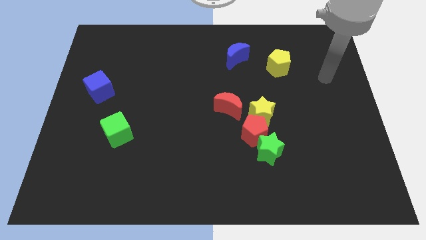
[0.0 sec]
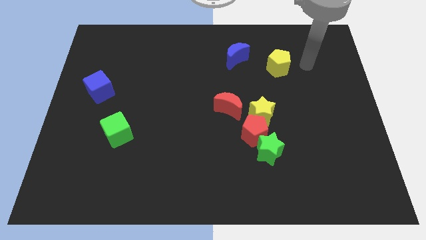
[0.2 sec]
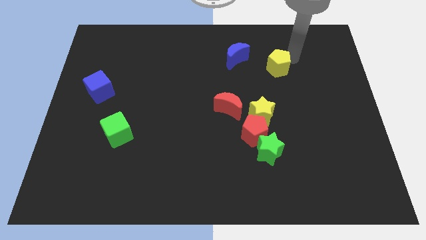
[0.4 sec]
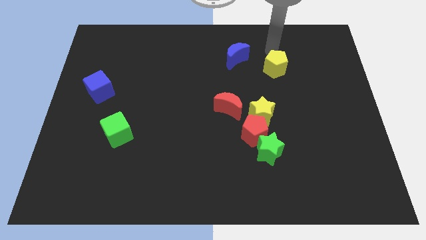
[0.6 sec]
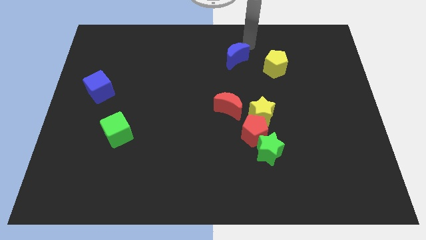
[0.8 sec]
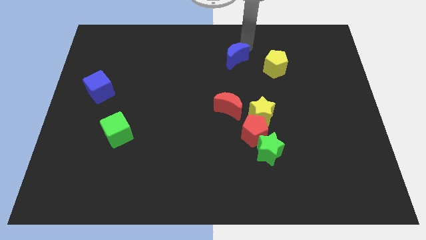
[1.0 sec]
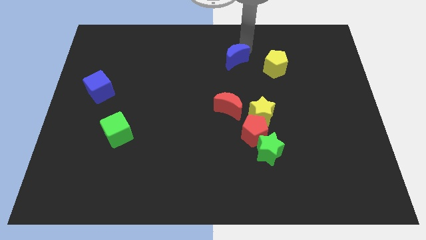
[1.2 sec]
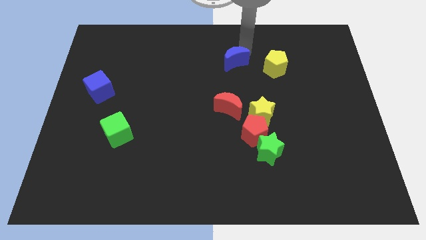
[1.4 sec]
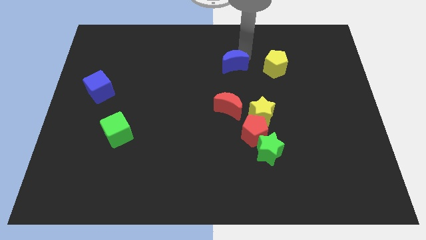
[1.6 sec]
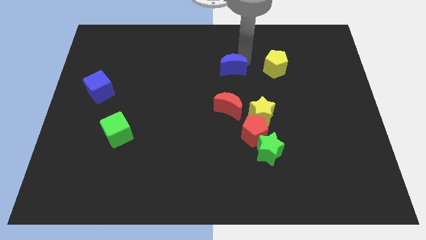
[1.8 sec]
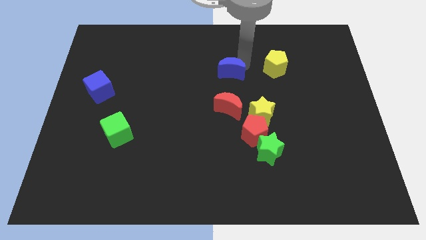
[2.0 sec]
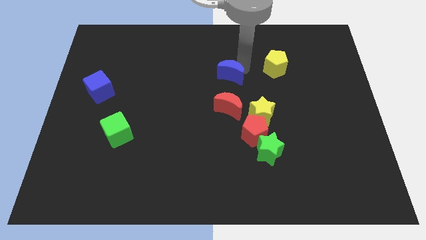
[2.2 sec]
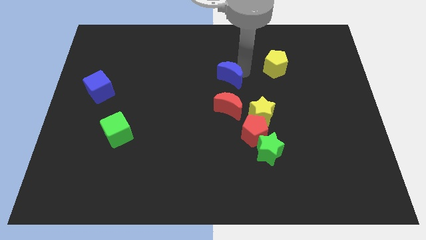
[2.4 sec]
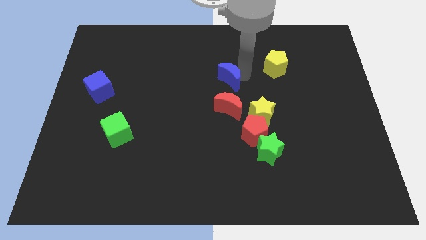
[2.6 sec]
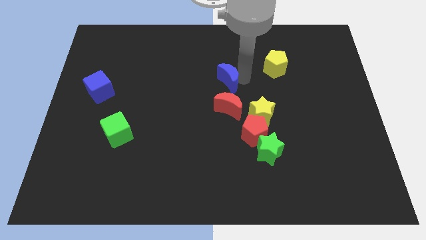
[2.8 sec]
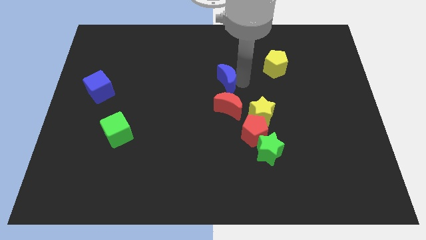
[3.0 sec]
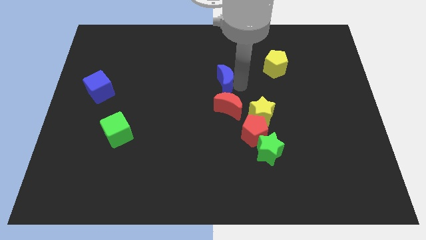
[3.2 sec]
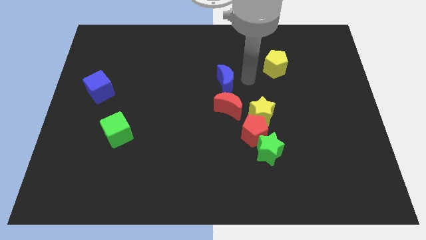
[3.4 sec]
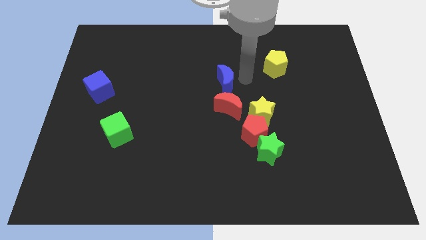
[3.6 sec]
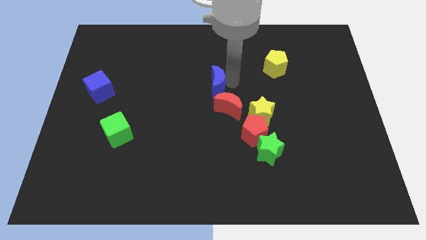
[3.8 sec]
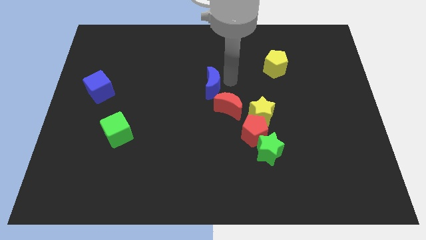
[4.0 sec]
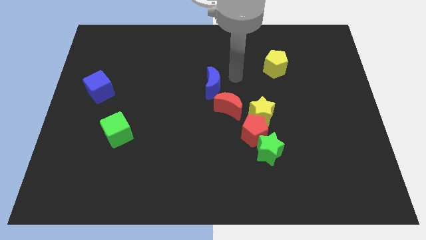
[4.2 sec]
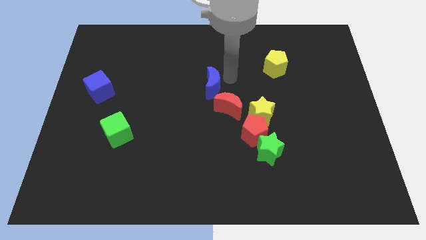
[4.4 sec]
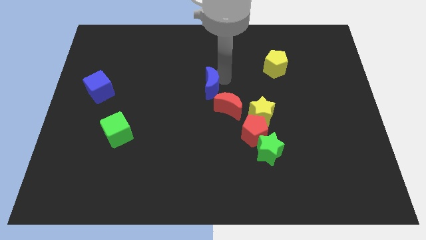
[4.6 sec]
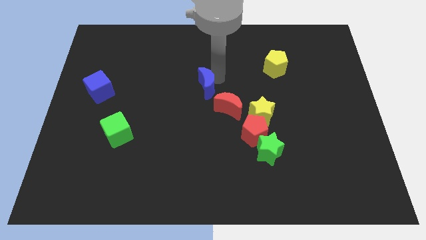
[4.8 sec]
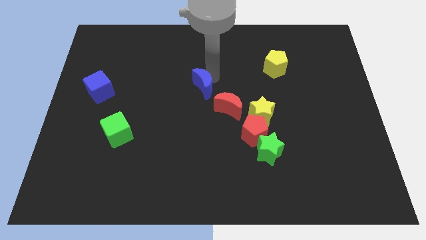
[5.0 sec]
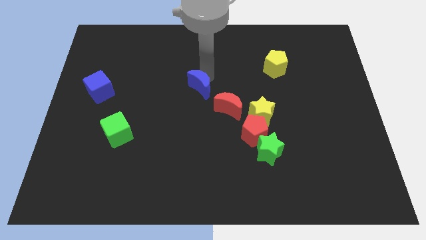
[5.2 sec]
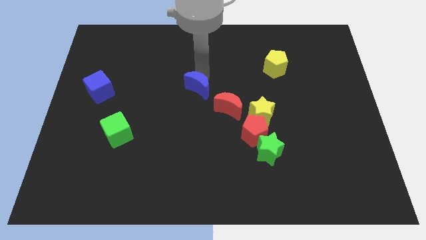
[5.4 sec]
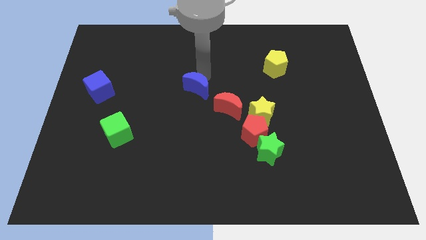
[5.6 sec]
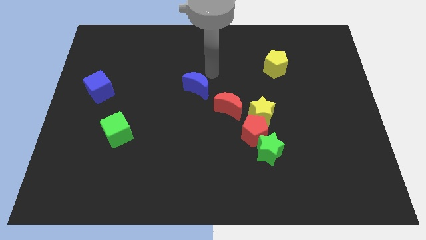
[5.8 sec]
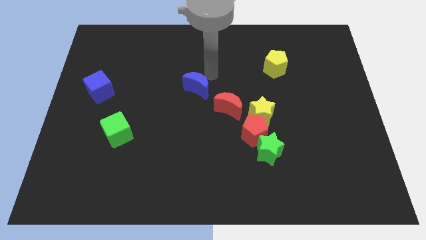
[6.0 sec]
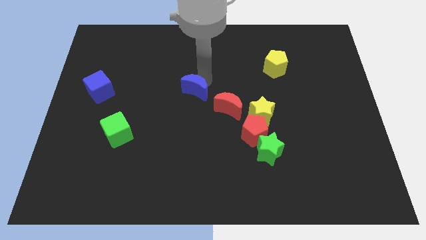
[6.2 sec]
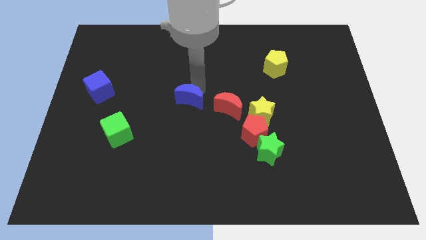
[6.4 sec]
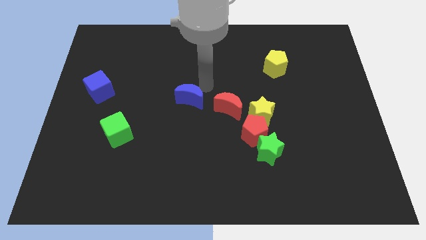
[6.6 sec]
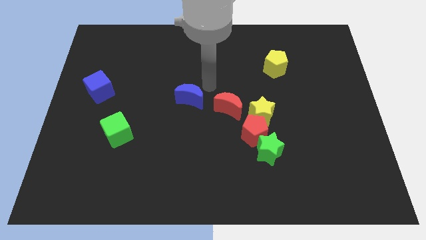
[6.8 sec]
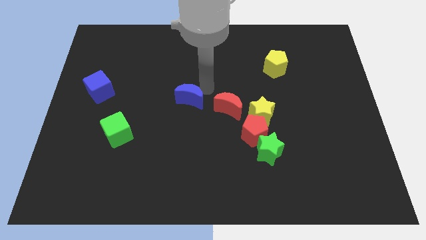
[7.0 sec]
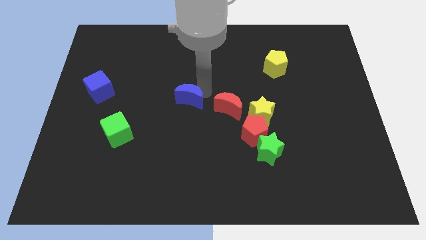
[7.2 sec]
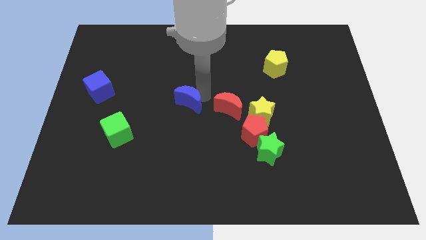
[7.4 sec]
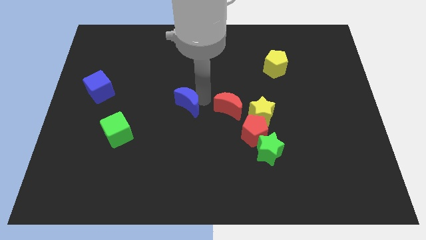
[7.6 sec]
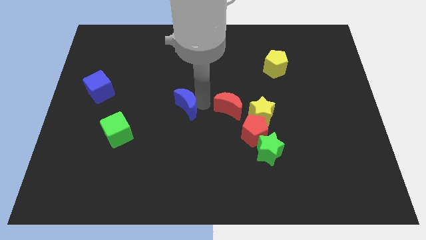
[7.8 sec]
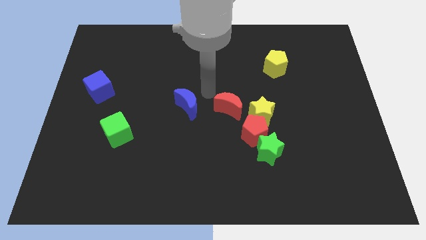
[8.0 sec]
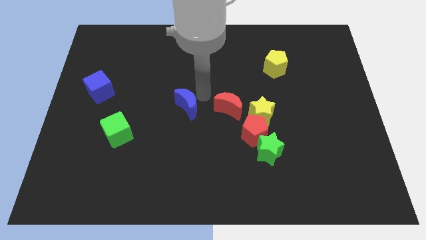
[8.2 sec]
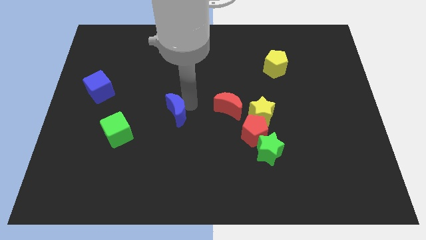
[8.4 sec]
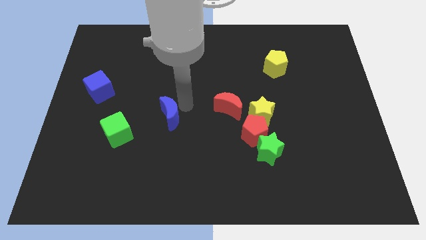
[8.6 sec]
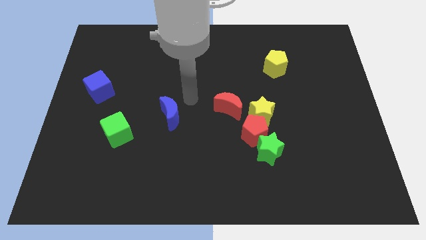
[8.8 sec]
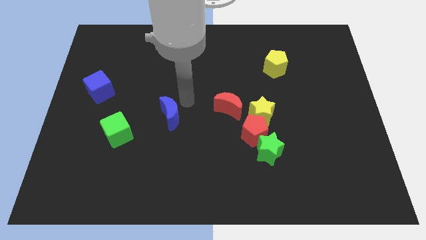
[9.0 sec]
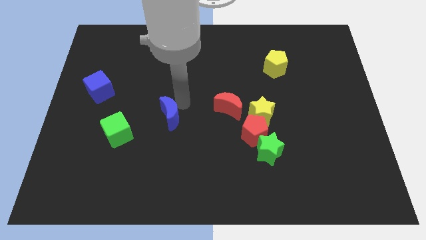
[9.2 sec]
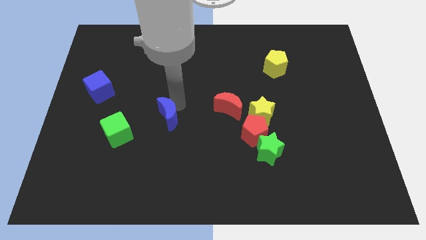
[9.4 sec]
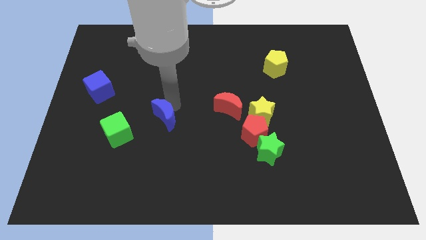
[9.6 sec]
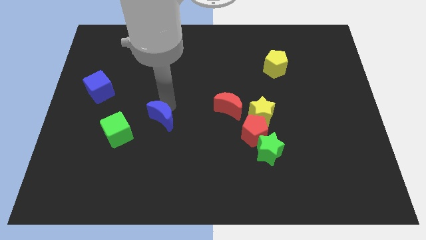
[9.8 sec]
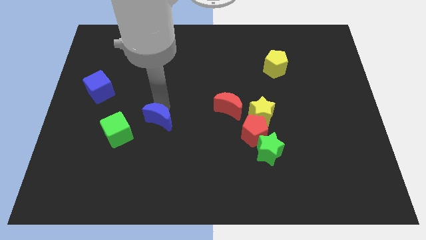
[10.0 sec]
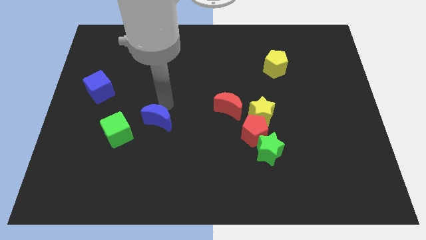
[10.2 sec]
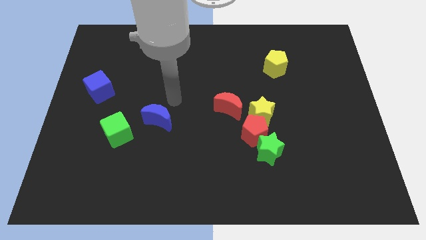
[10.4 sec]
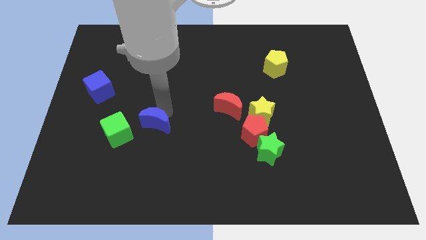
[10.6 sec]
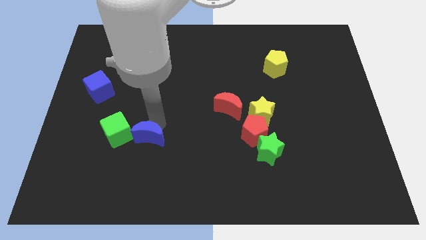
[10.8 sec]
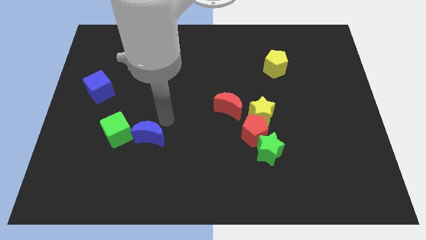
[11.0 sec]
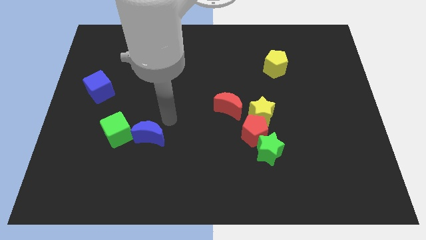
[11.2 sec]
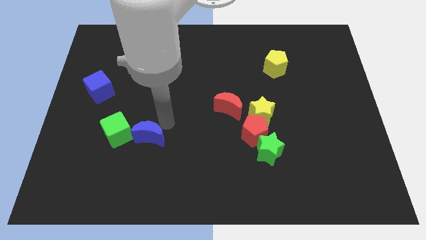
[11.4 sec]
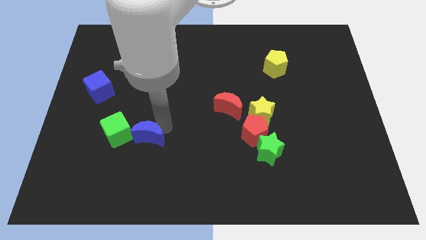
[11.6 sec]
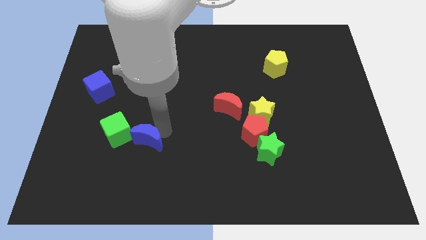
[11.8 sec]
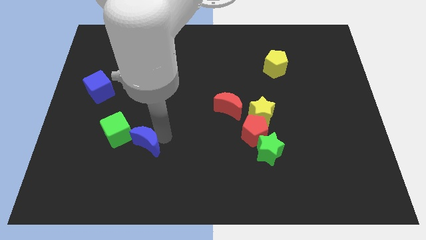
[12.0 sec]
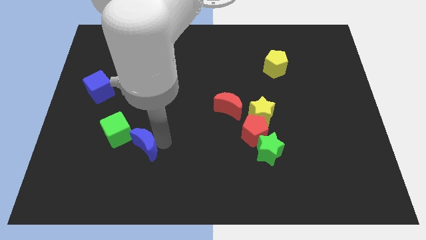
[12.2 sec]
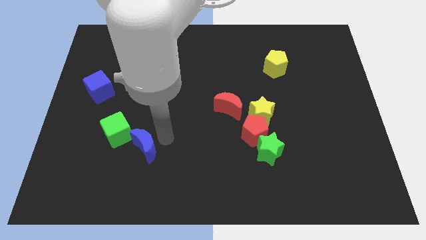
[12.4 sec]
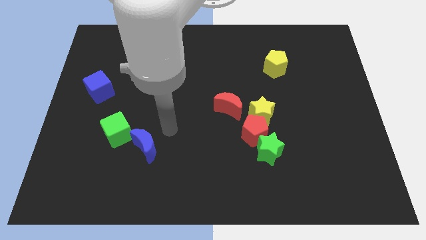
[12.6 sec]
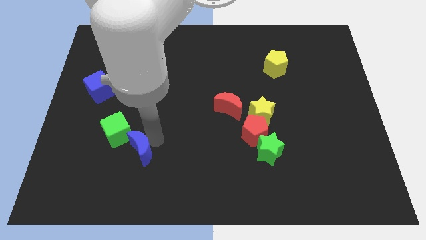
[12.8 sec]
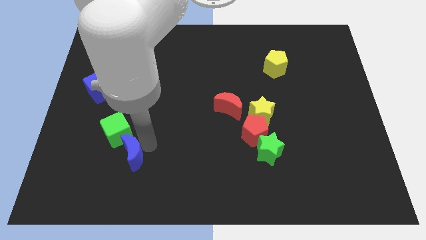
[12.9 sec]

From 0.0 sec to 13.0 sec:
put the blue moon below the green cube
